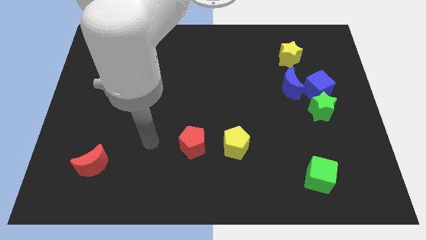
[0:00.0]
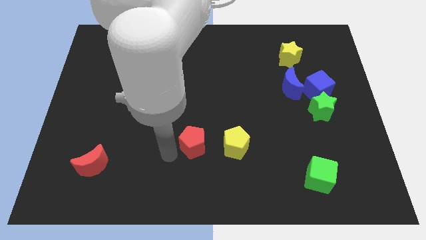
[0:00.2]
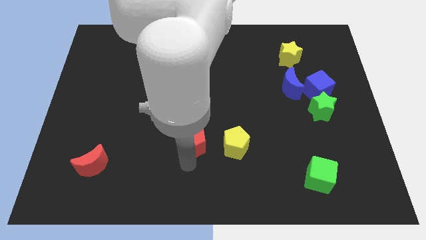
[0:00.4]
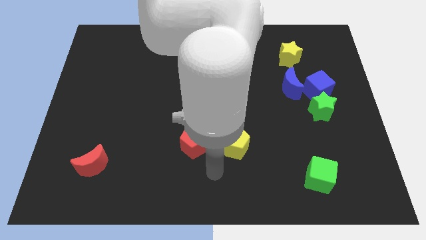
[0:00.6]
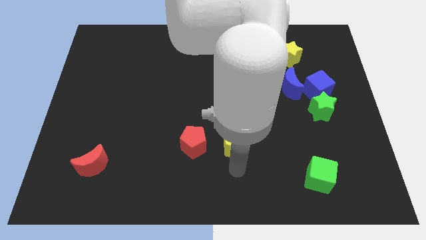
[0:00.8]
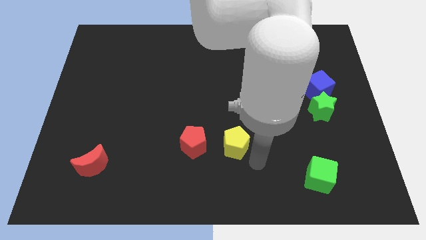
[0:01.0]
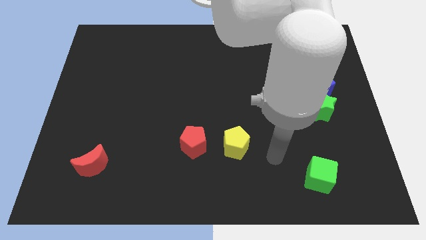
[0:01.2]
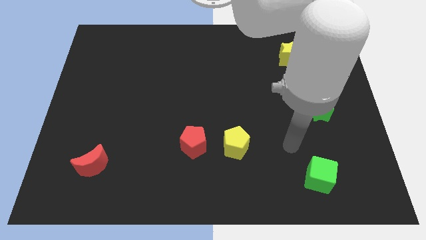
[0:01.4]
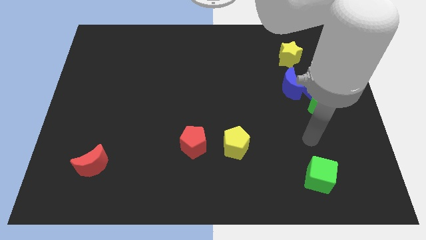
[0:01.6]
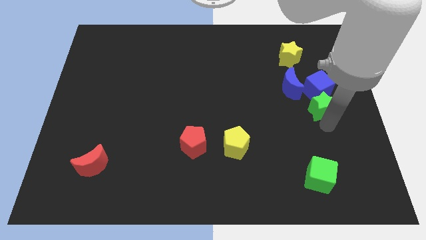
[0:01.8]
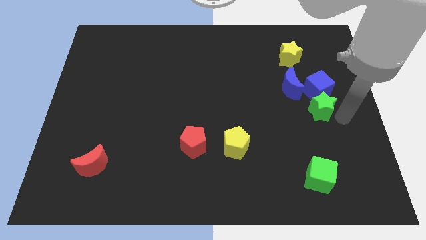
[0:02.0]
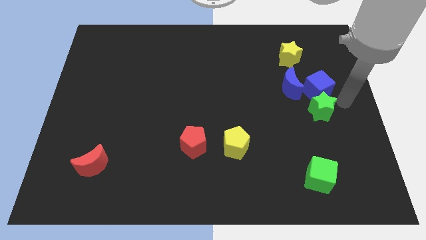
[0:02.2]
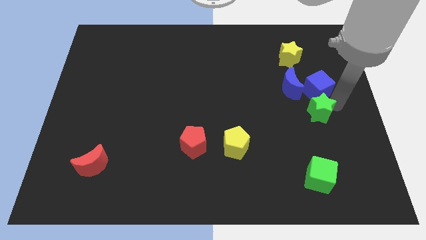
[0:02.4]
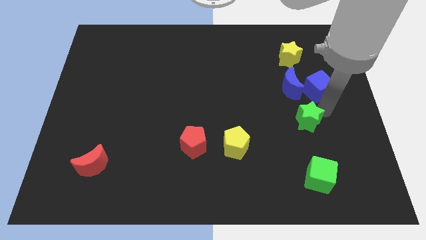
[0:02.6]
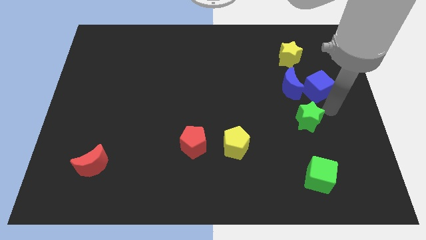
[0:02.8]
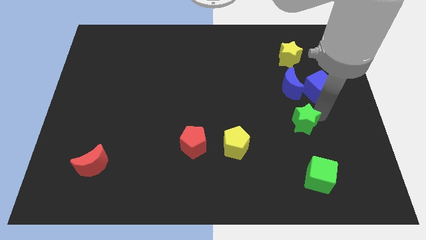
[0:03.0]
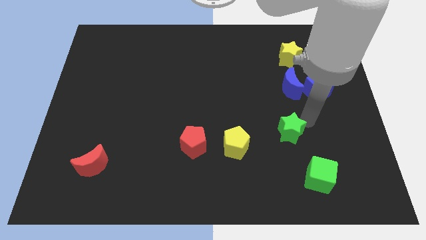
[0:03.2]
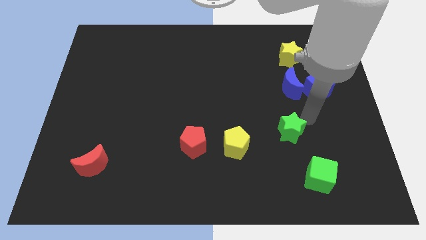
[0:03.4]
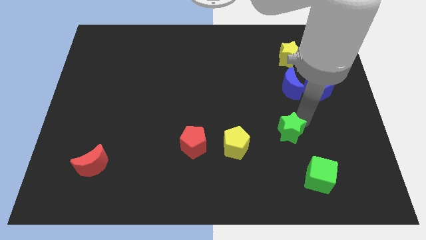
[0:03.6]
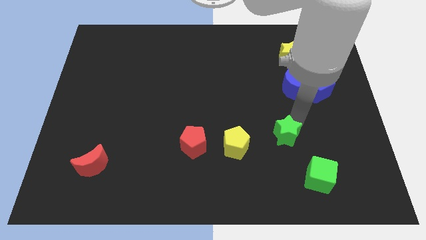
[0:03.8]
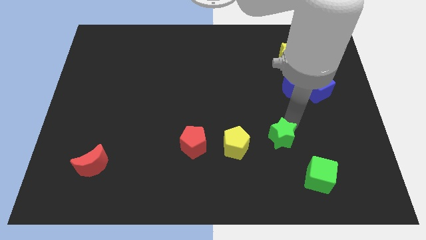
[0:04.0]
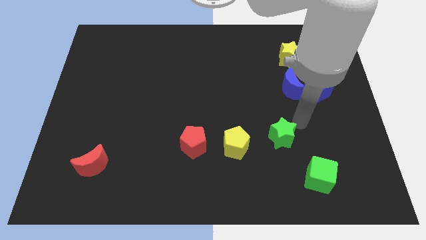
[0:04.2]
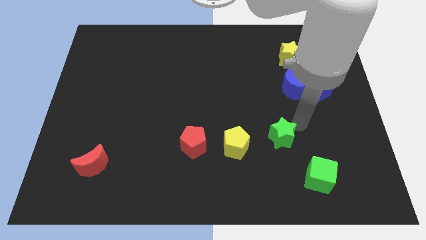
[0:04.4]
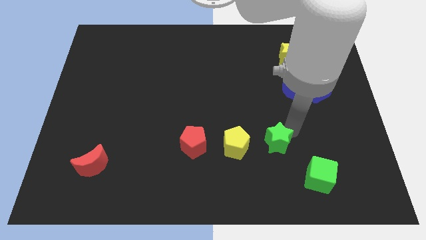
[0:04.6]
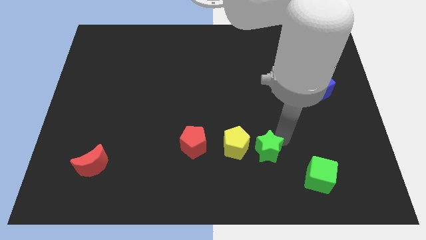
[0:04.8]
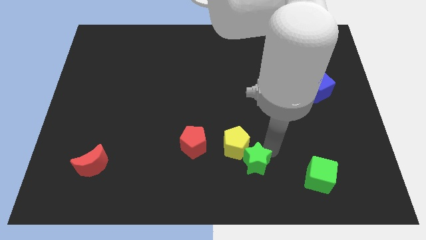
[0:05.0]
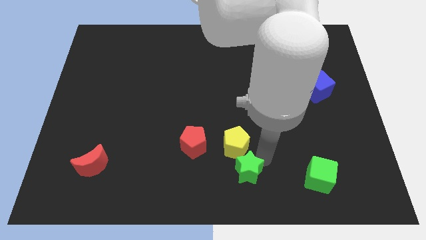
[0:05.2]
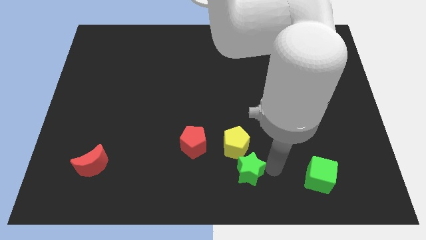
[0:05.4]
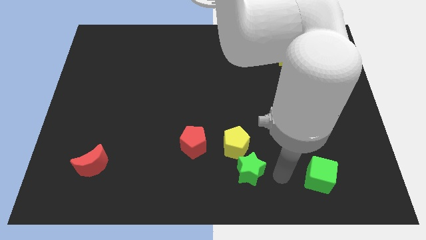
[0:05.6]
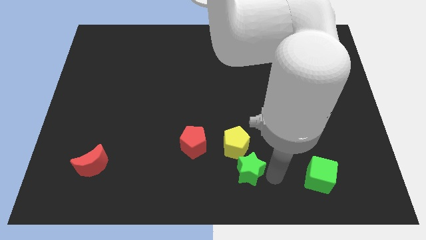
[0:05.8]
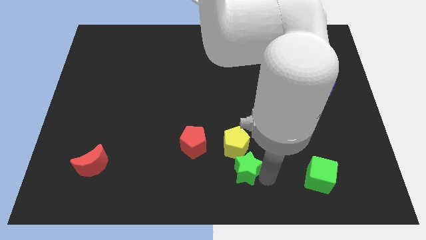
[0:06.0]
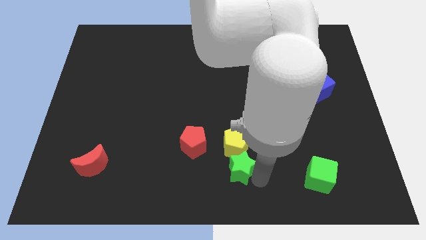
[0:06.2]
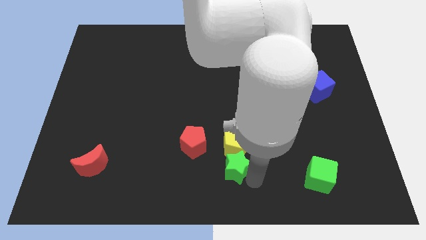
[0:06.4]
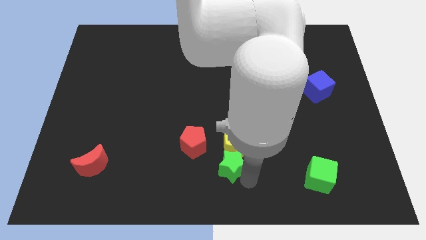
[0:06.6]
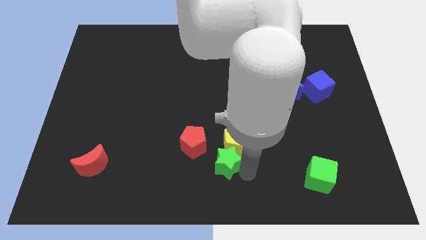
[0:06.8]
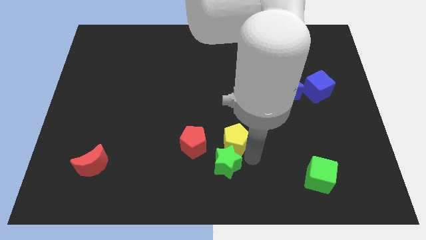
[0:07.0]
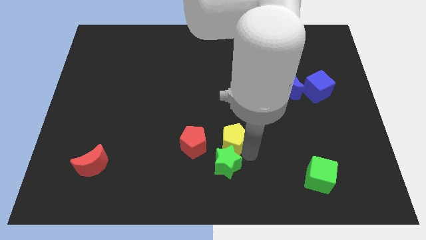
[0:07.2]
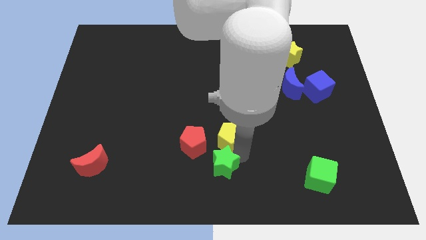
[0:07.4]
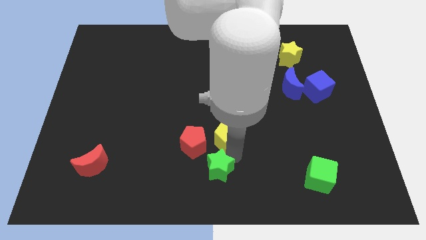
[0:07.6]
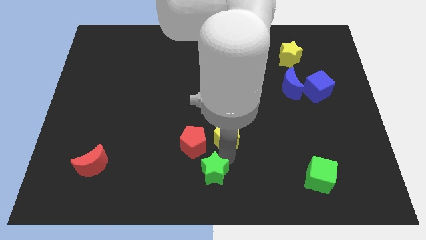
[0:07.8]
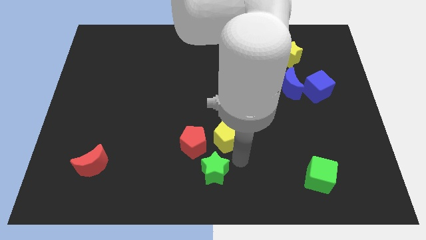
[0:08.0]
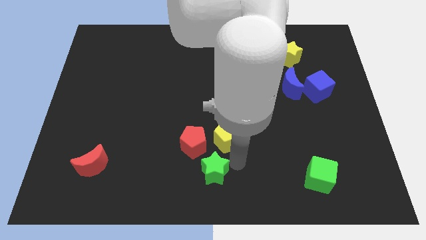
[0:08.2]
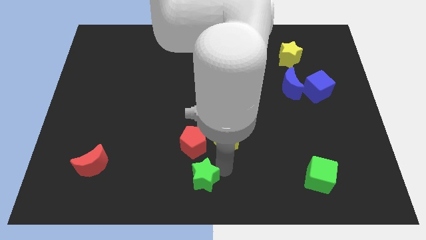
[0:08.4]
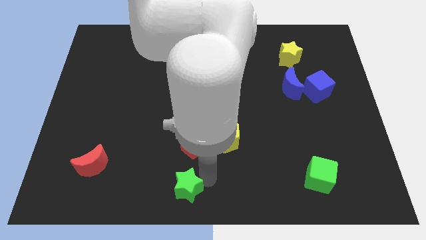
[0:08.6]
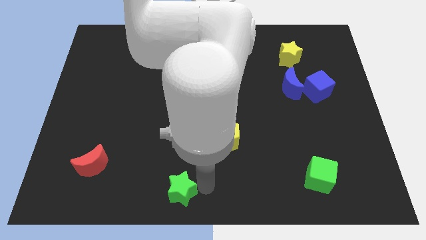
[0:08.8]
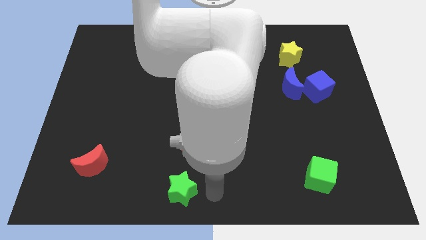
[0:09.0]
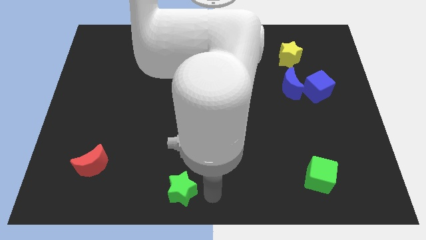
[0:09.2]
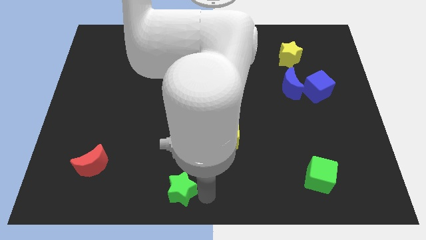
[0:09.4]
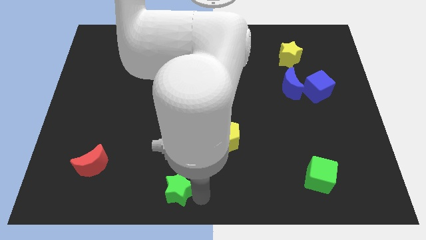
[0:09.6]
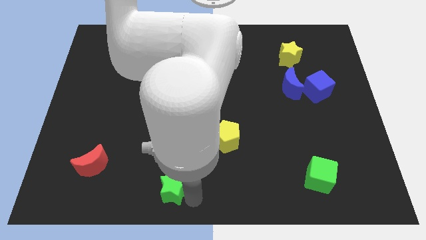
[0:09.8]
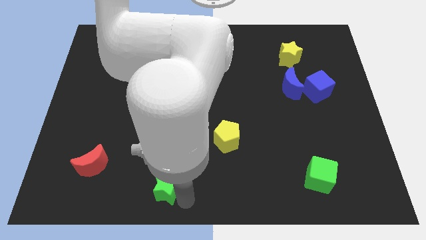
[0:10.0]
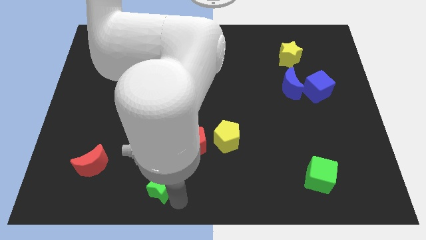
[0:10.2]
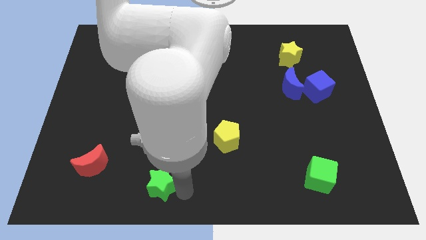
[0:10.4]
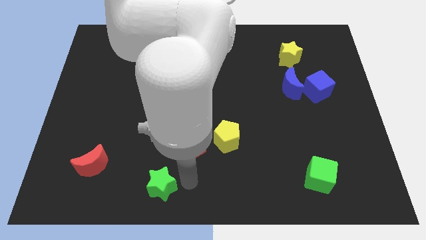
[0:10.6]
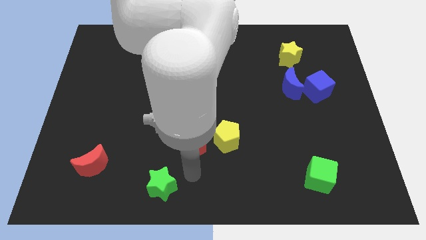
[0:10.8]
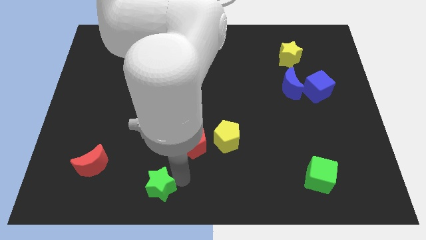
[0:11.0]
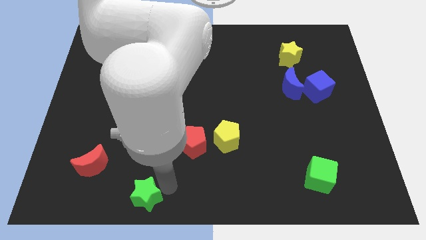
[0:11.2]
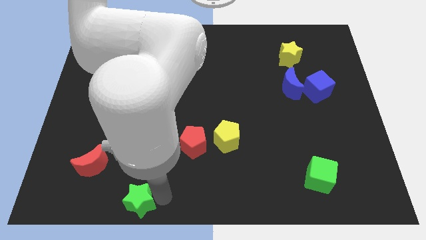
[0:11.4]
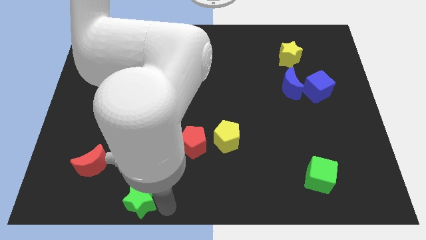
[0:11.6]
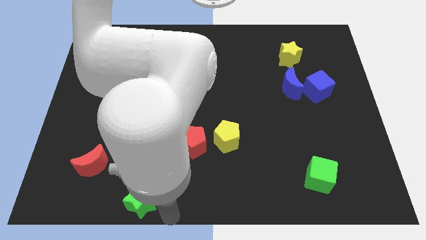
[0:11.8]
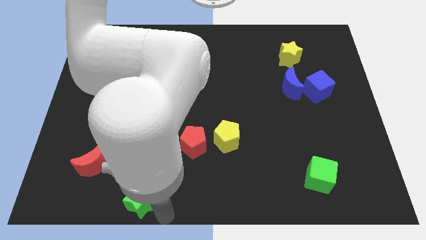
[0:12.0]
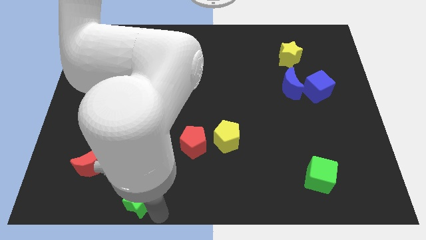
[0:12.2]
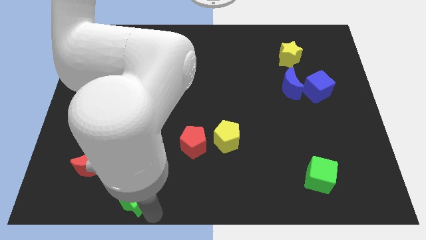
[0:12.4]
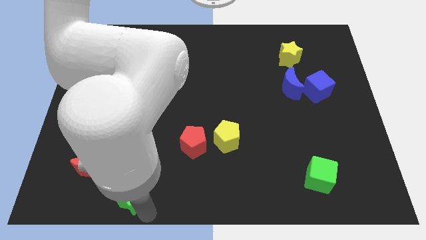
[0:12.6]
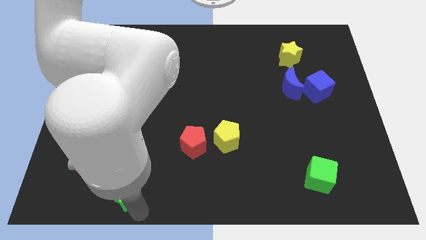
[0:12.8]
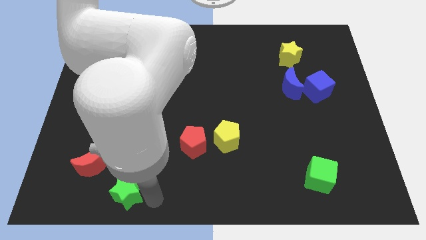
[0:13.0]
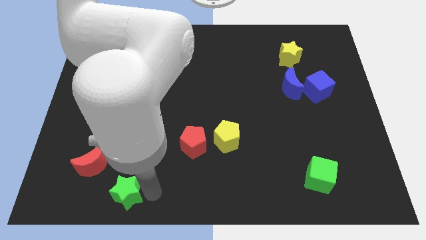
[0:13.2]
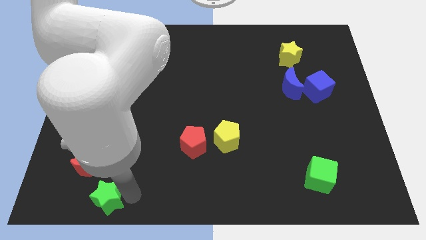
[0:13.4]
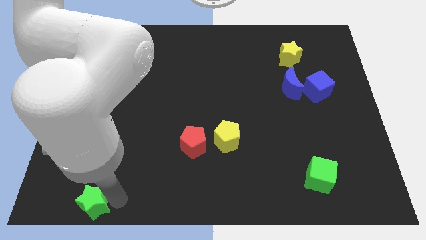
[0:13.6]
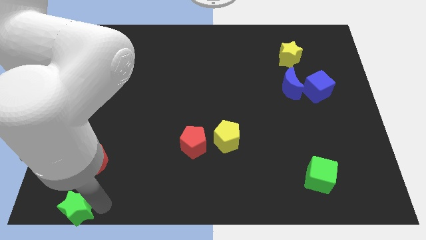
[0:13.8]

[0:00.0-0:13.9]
slide the green star to the bottom left
